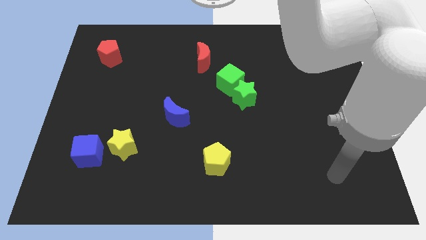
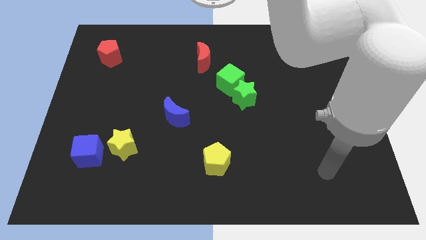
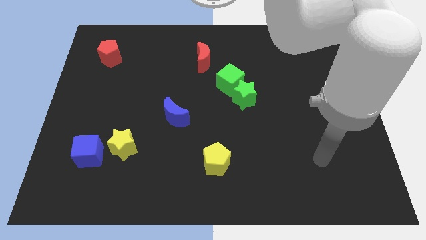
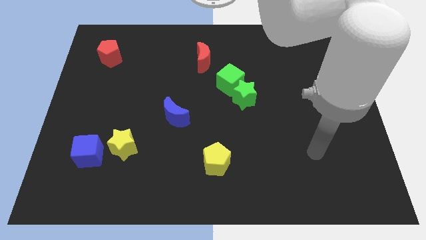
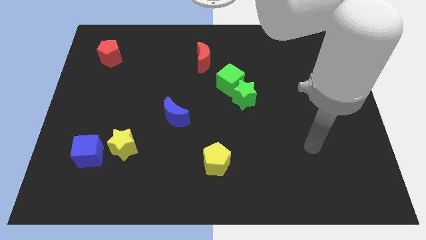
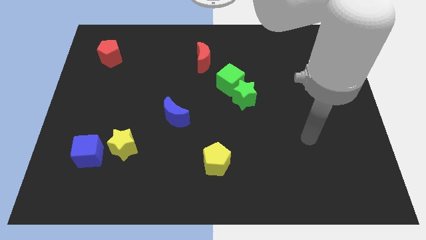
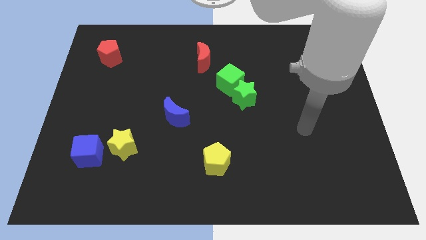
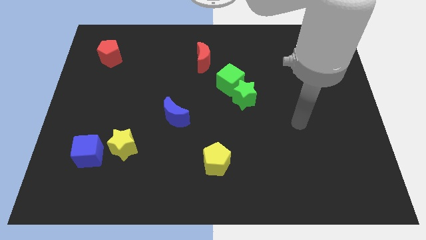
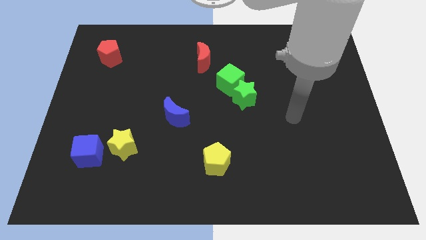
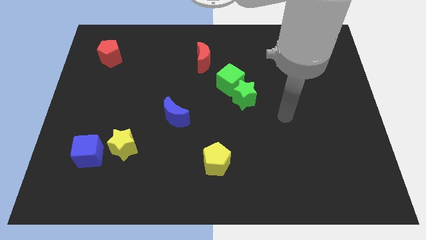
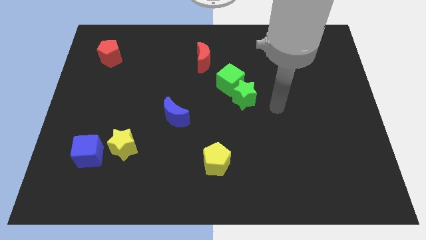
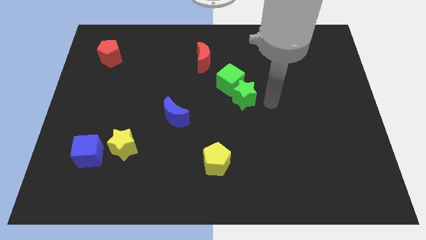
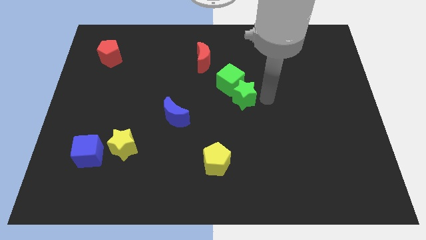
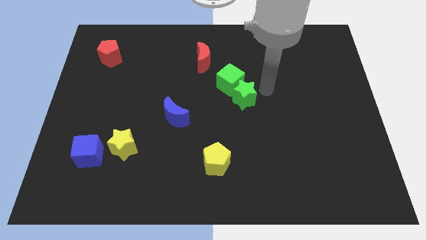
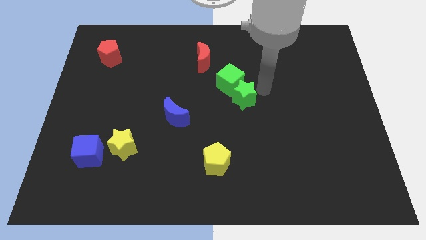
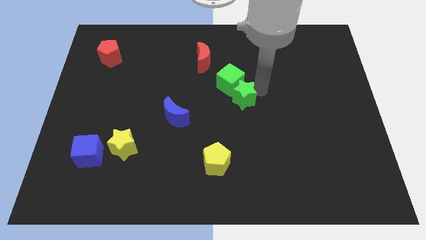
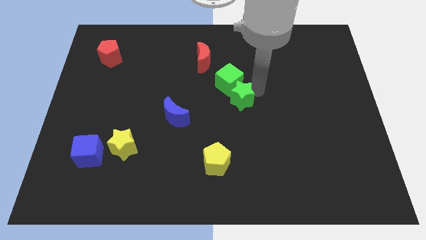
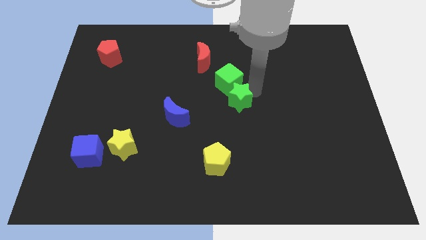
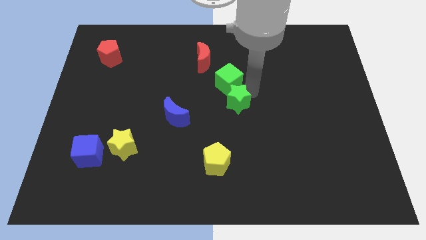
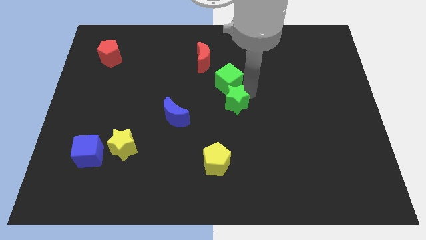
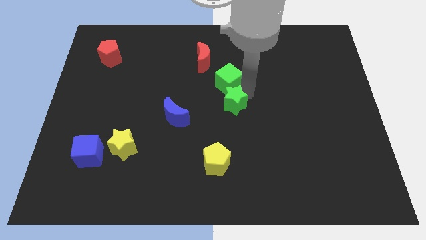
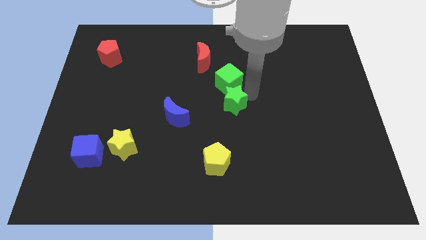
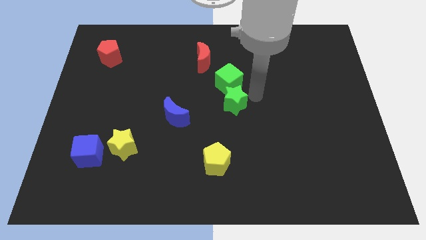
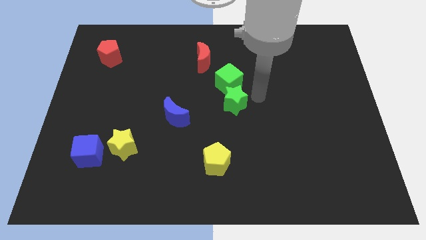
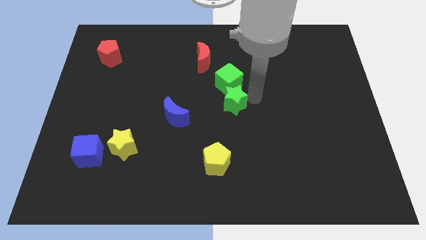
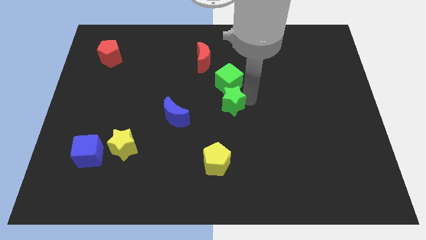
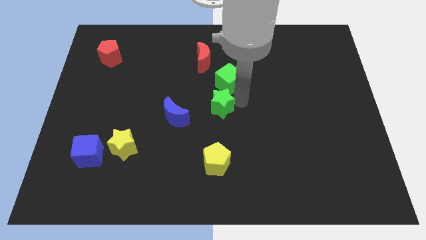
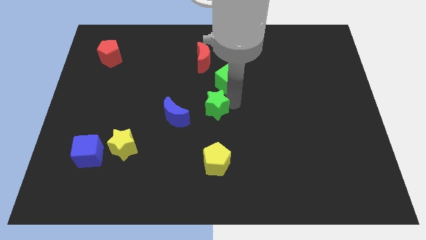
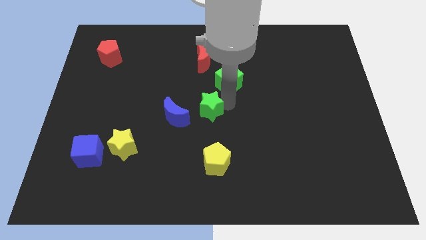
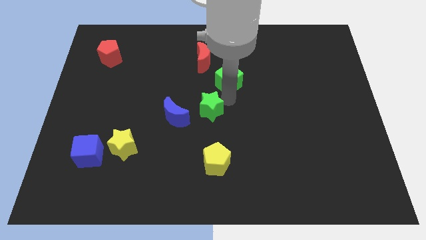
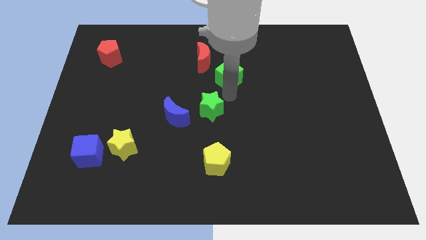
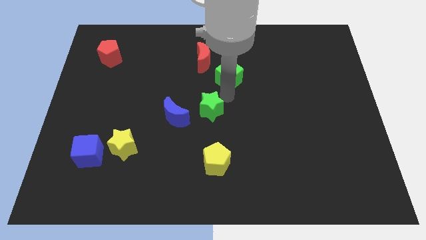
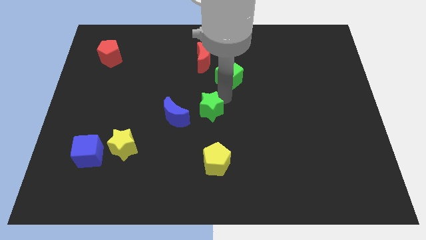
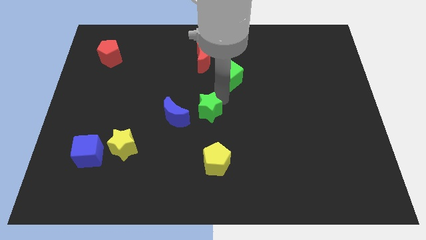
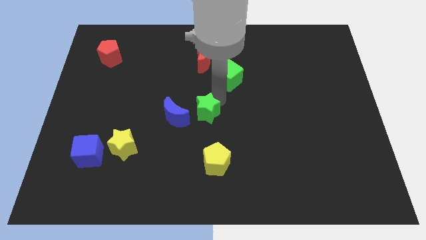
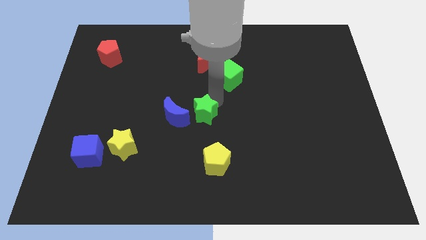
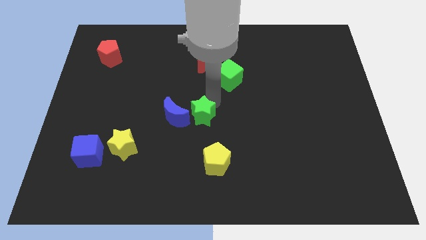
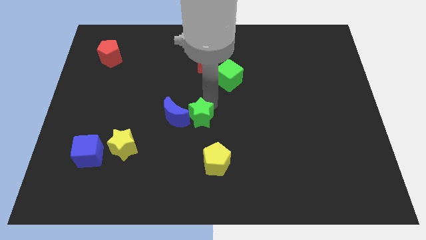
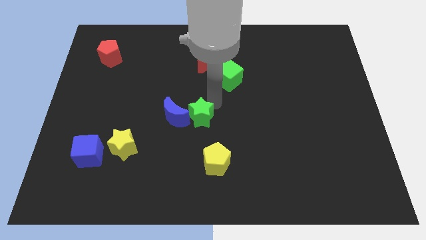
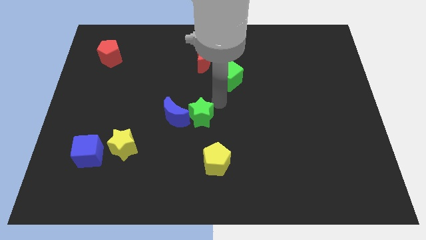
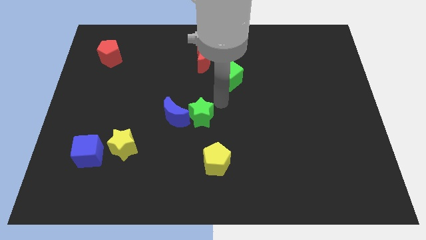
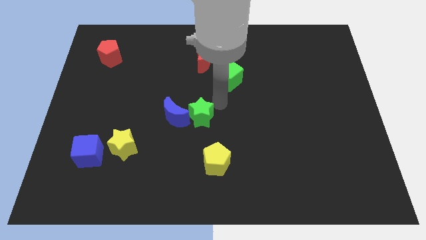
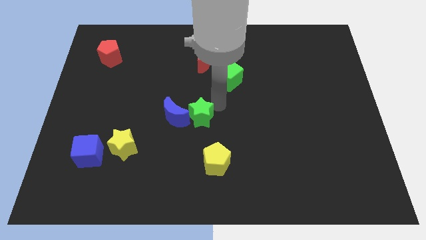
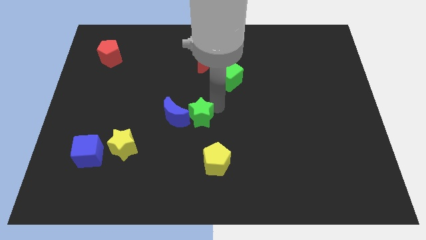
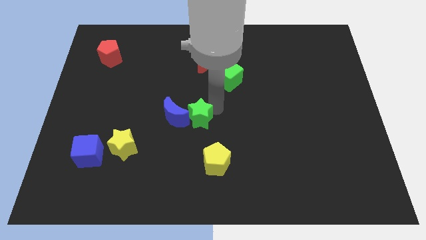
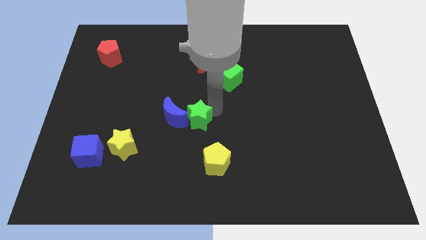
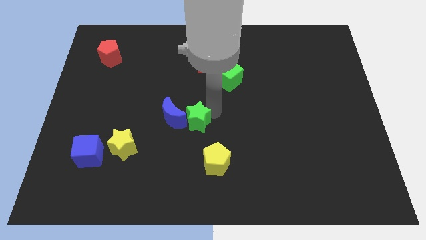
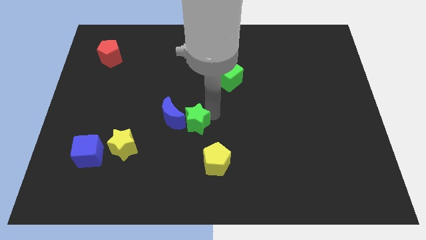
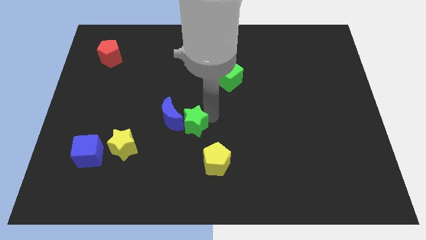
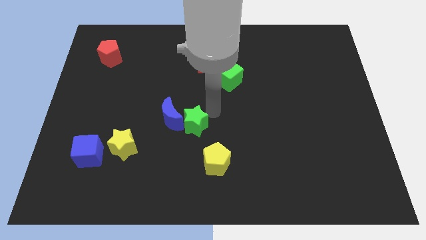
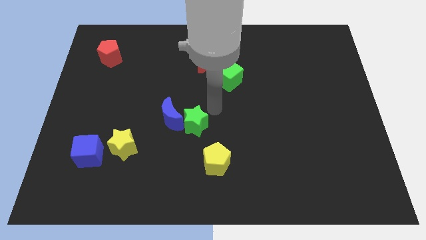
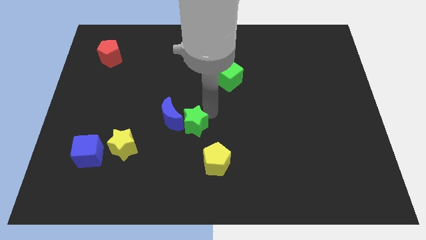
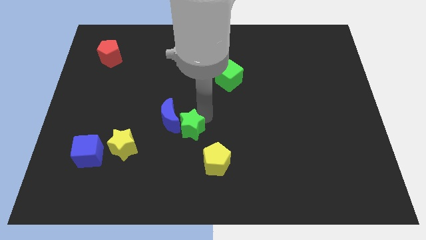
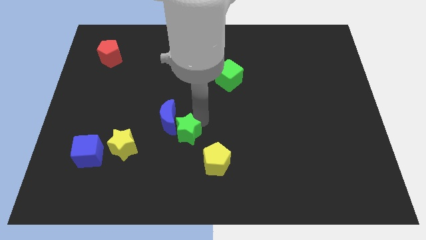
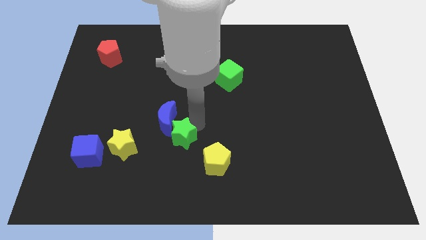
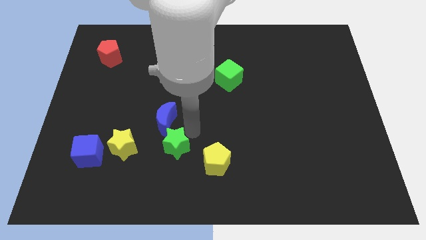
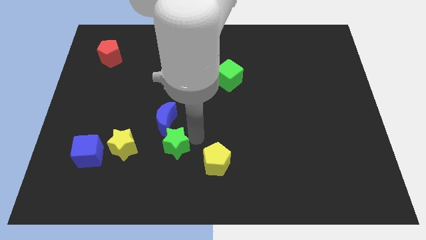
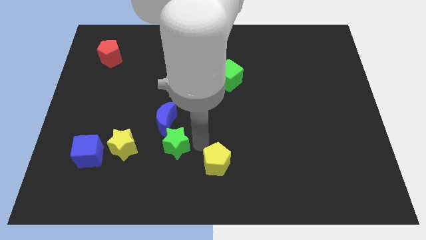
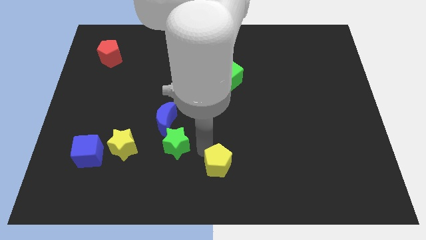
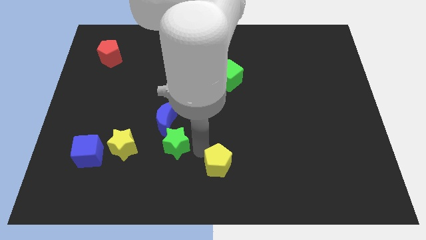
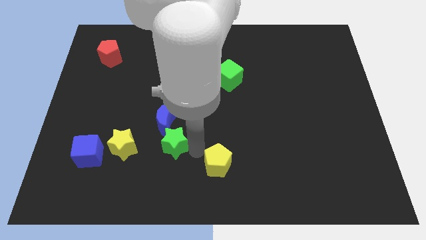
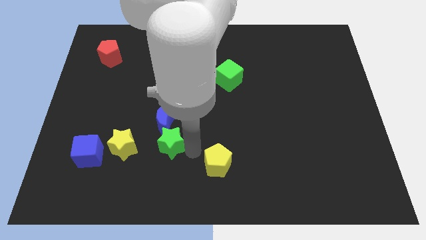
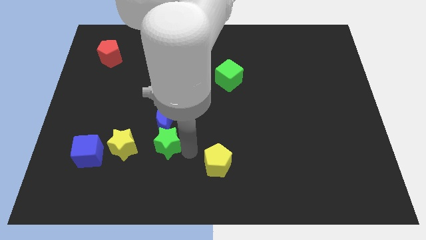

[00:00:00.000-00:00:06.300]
slide the green star to the bottom left side of the blue moon
